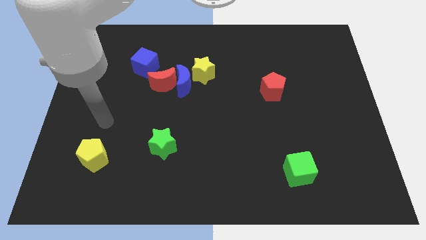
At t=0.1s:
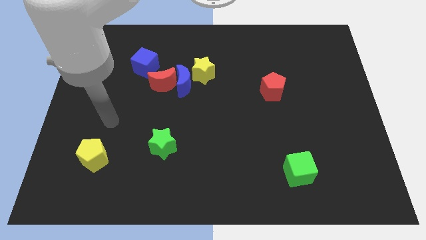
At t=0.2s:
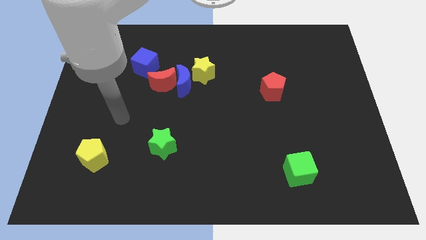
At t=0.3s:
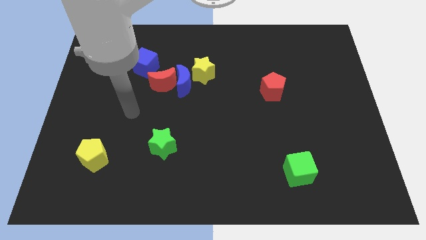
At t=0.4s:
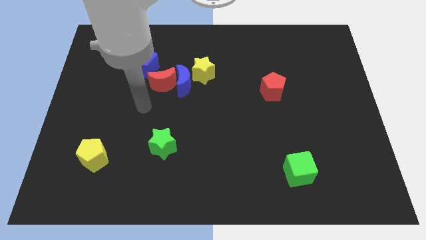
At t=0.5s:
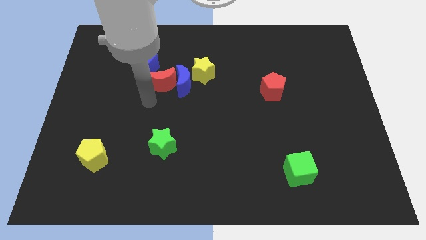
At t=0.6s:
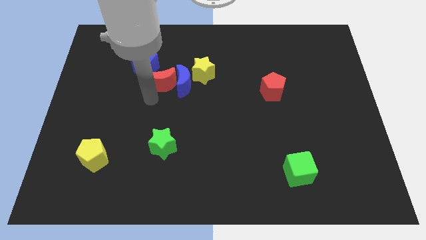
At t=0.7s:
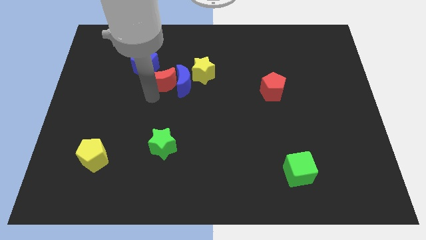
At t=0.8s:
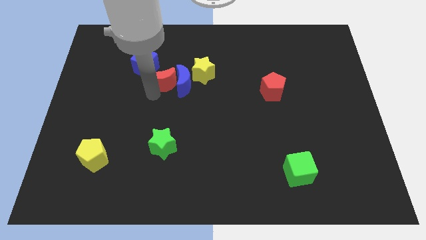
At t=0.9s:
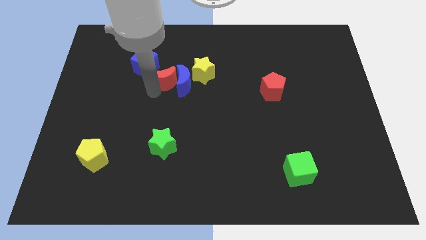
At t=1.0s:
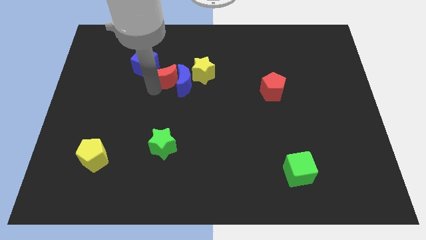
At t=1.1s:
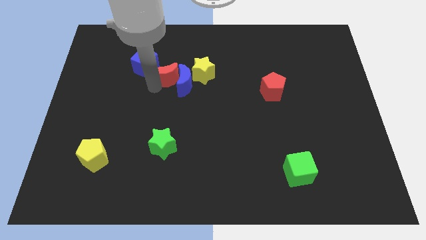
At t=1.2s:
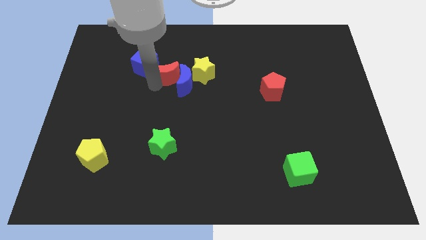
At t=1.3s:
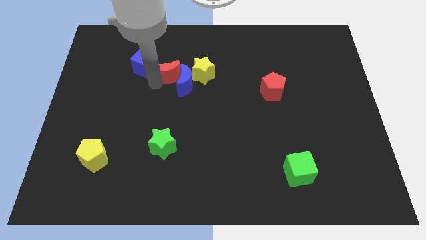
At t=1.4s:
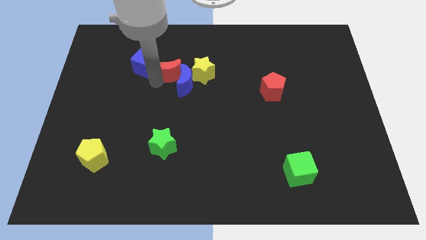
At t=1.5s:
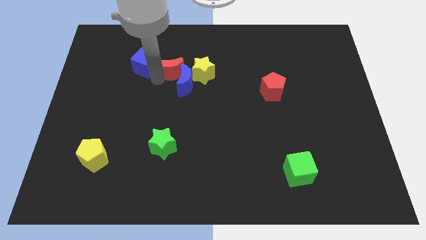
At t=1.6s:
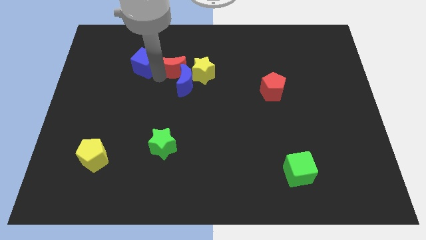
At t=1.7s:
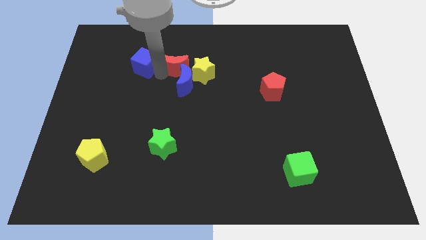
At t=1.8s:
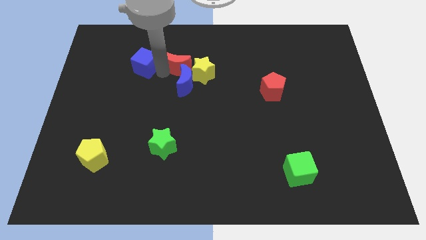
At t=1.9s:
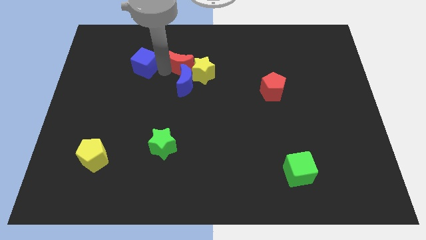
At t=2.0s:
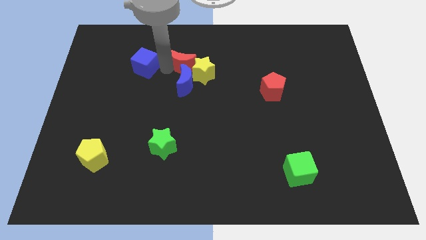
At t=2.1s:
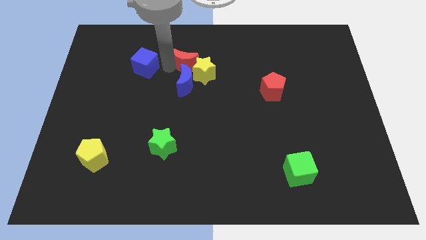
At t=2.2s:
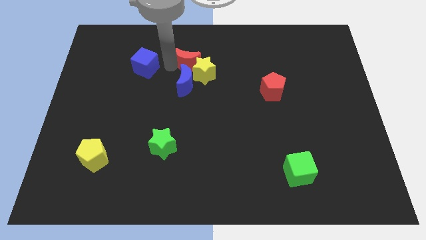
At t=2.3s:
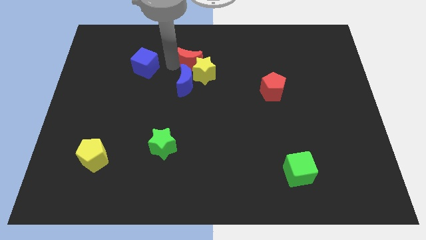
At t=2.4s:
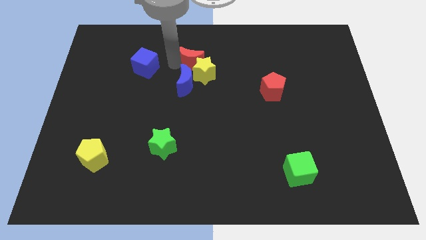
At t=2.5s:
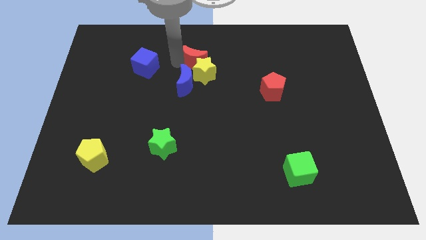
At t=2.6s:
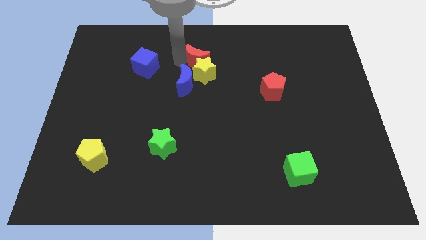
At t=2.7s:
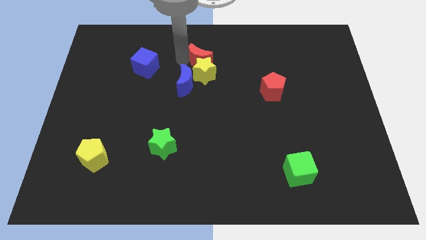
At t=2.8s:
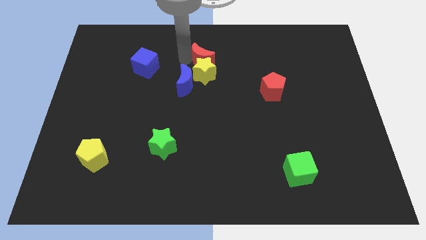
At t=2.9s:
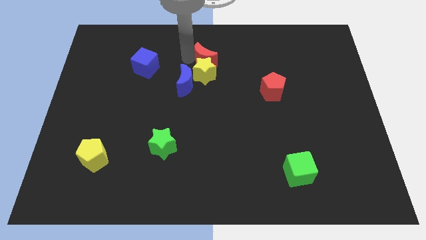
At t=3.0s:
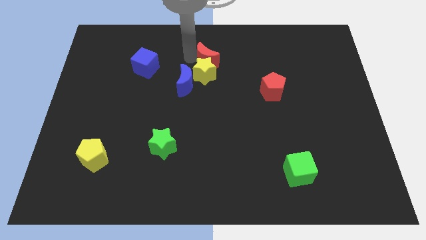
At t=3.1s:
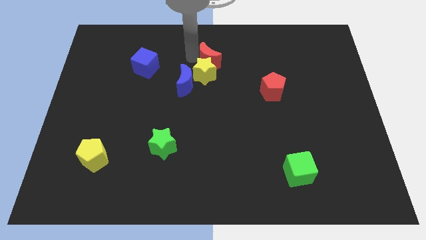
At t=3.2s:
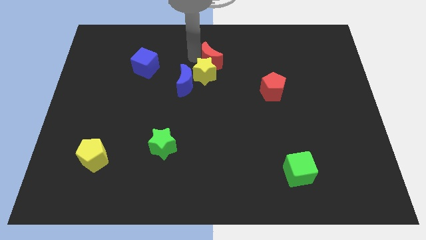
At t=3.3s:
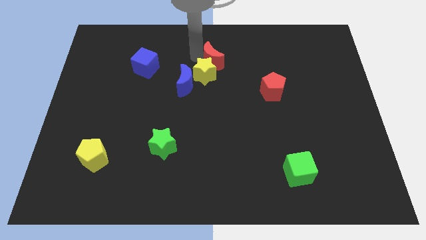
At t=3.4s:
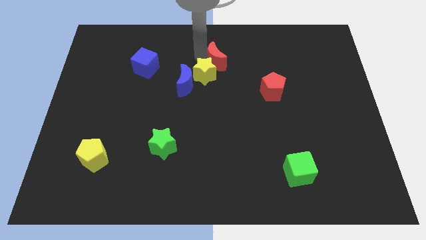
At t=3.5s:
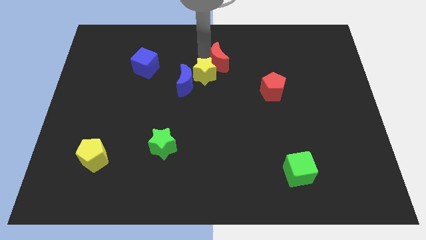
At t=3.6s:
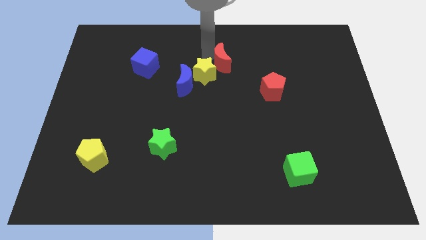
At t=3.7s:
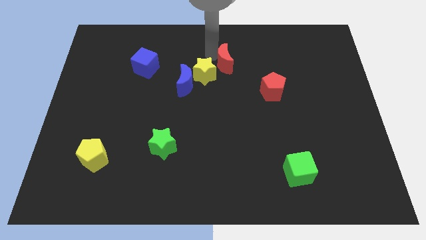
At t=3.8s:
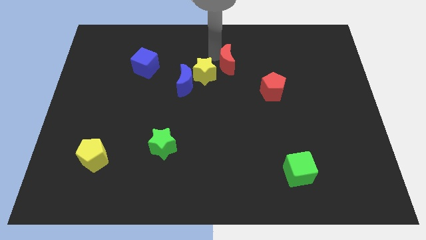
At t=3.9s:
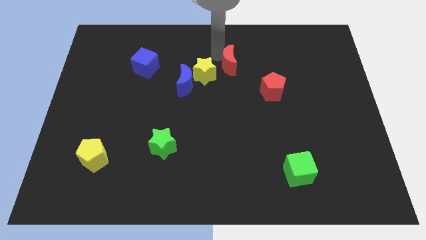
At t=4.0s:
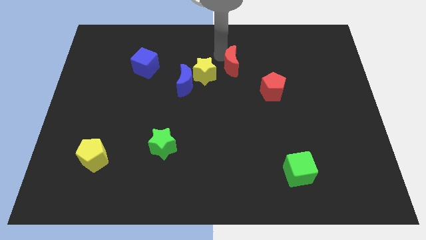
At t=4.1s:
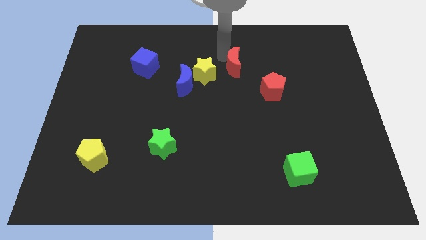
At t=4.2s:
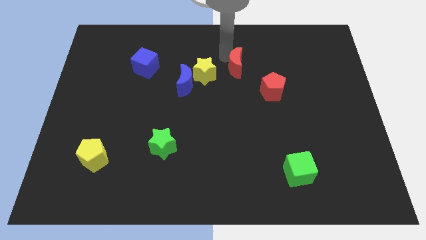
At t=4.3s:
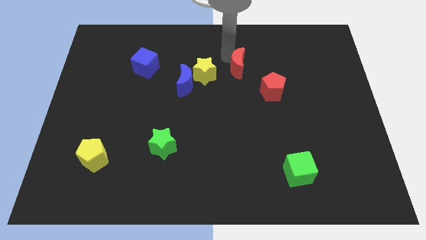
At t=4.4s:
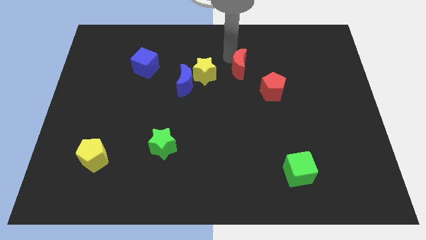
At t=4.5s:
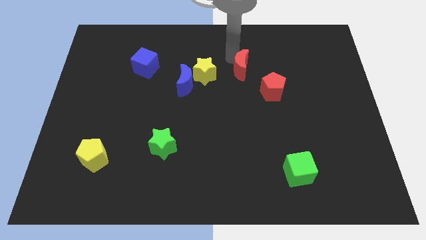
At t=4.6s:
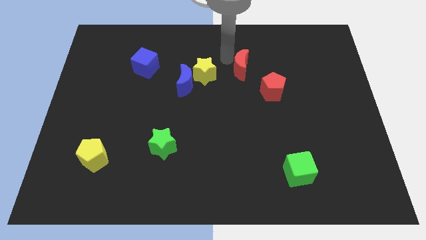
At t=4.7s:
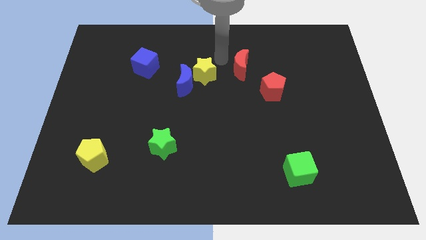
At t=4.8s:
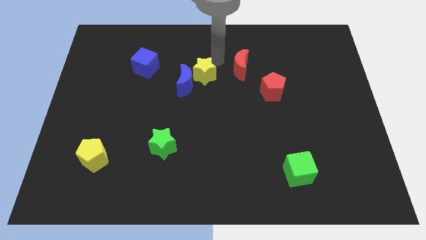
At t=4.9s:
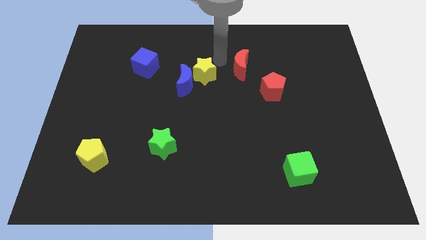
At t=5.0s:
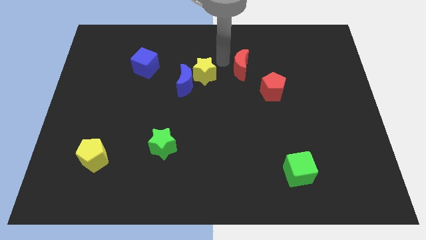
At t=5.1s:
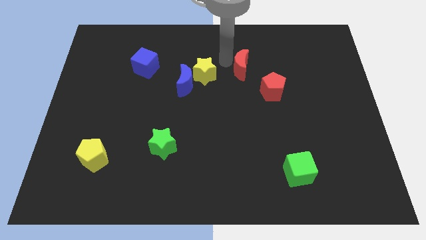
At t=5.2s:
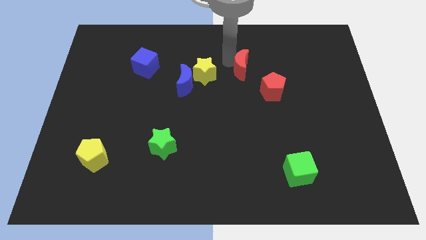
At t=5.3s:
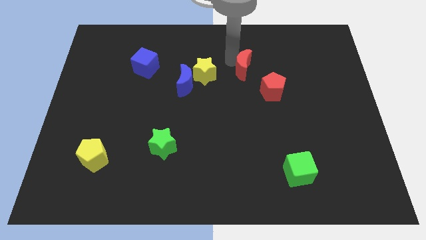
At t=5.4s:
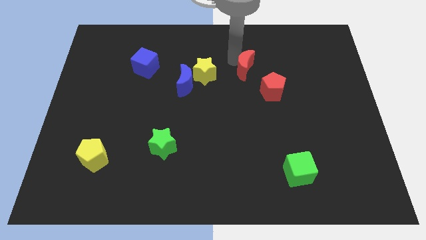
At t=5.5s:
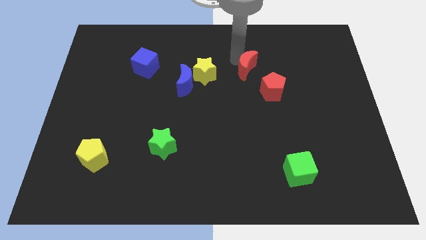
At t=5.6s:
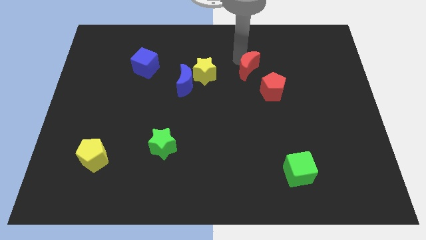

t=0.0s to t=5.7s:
push the red moon right

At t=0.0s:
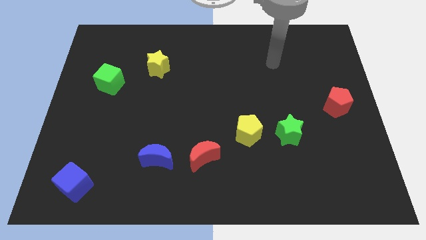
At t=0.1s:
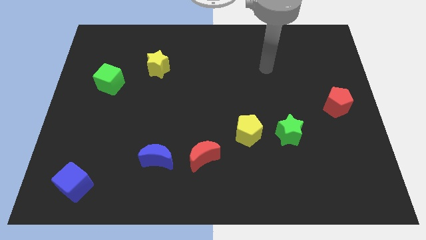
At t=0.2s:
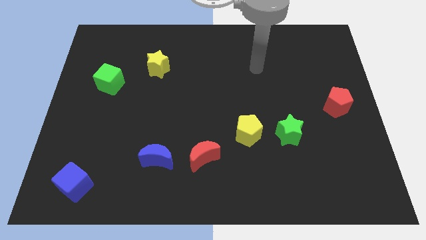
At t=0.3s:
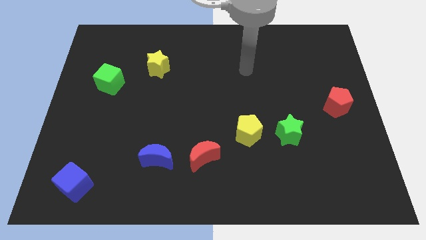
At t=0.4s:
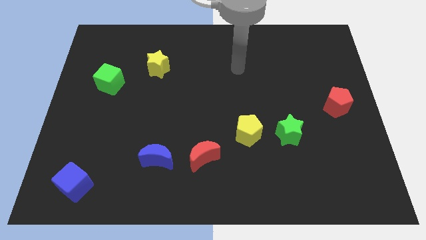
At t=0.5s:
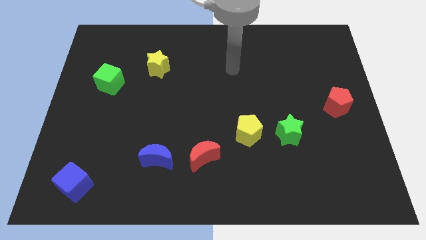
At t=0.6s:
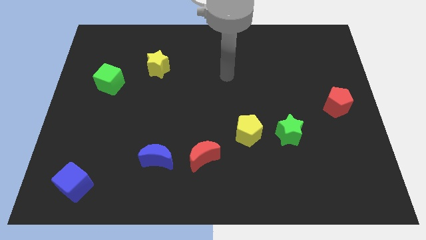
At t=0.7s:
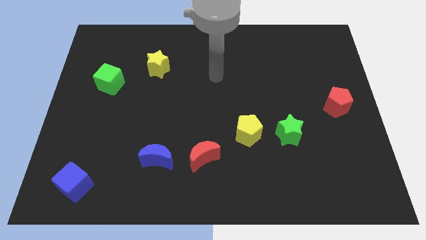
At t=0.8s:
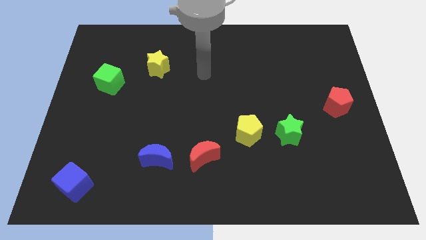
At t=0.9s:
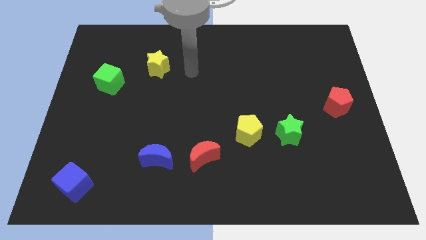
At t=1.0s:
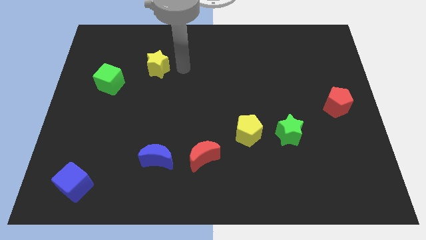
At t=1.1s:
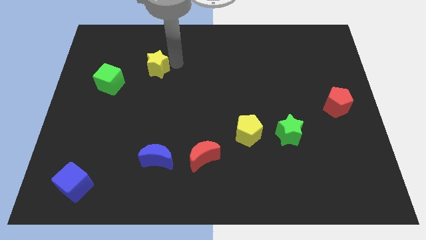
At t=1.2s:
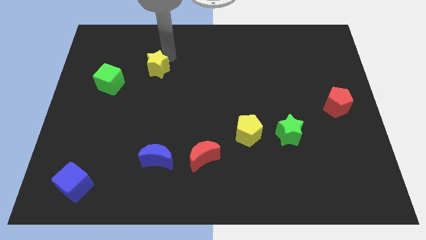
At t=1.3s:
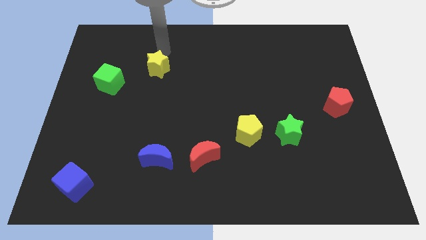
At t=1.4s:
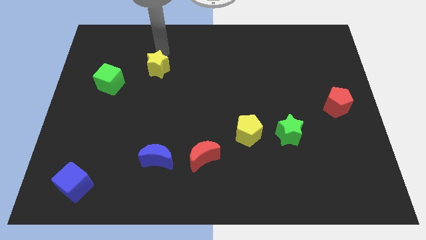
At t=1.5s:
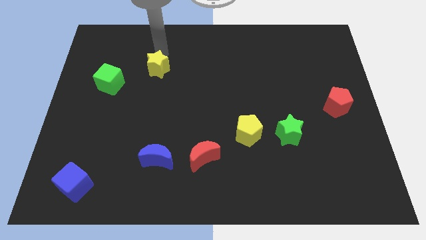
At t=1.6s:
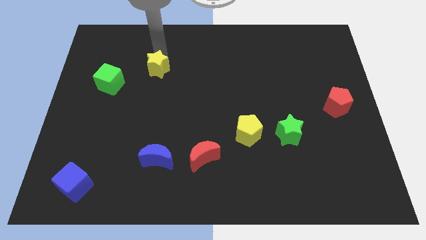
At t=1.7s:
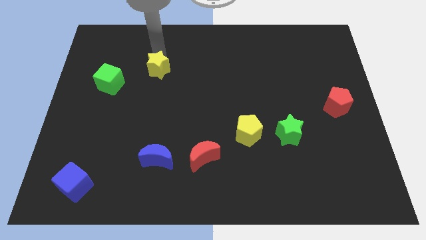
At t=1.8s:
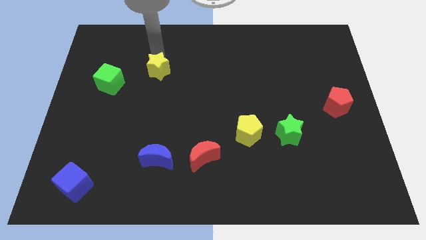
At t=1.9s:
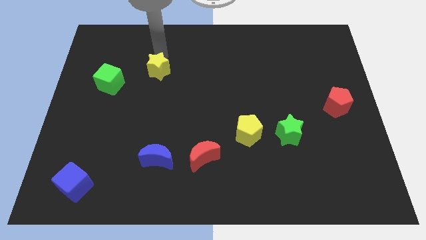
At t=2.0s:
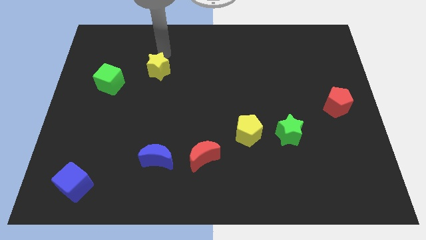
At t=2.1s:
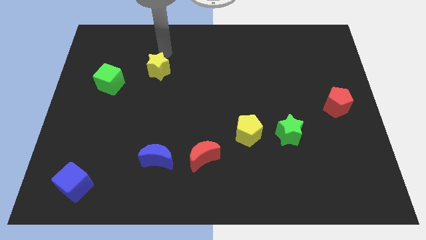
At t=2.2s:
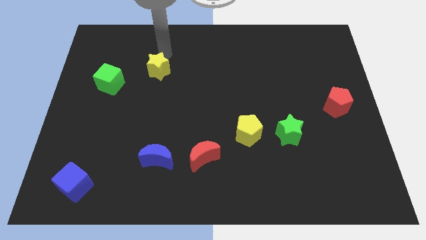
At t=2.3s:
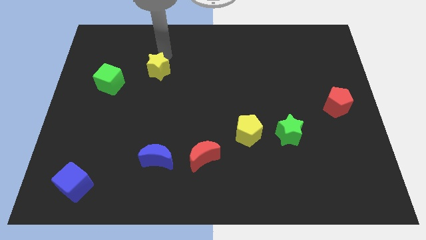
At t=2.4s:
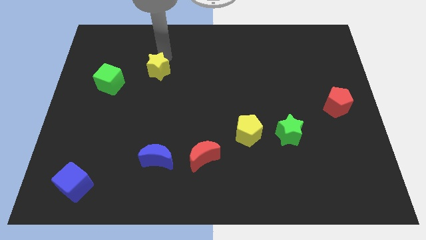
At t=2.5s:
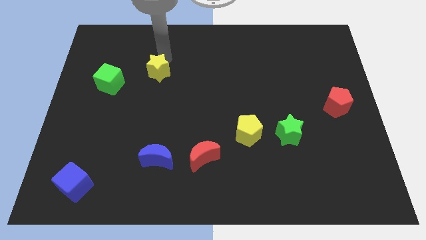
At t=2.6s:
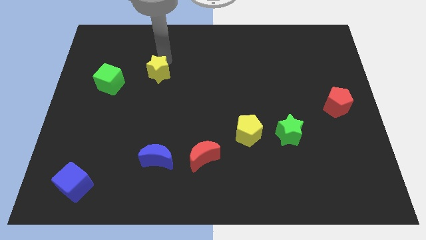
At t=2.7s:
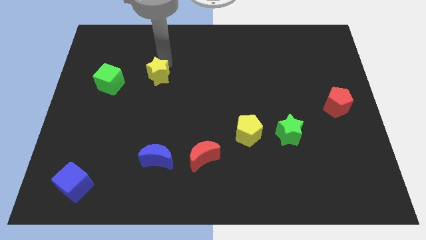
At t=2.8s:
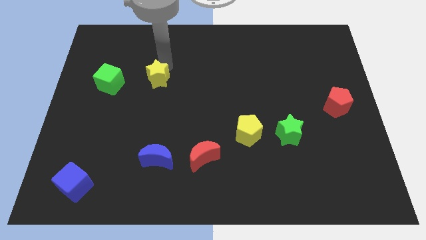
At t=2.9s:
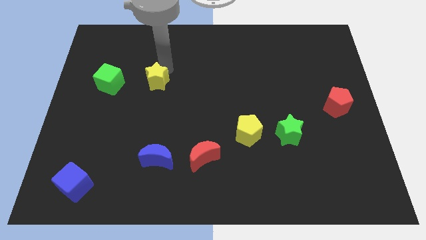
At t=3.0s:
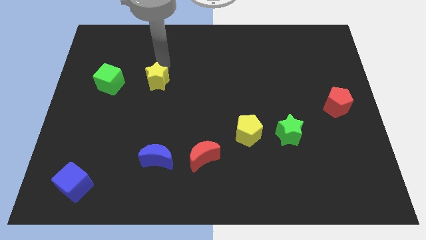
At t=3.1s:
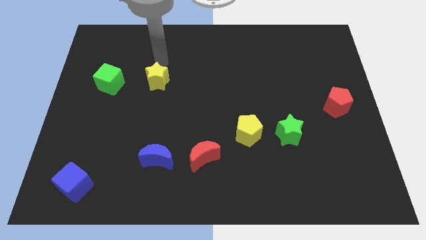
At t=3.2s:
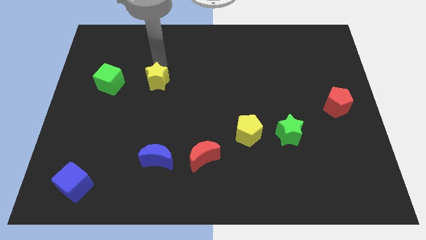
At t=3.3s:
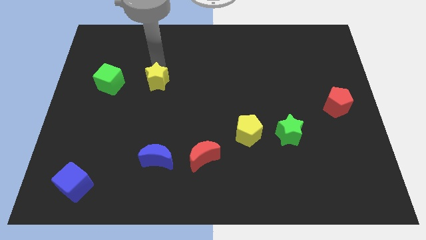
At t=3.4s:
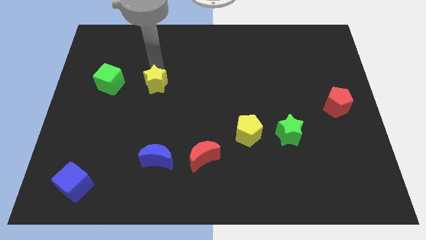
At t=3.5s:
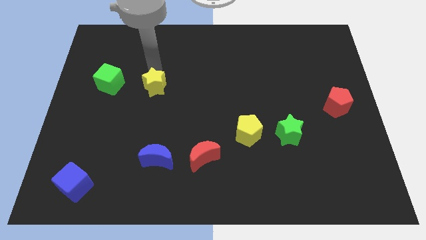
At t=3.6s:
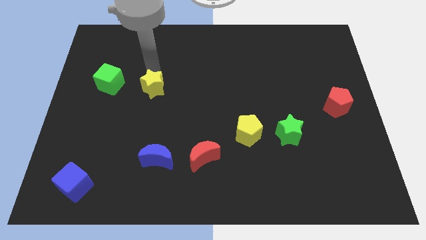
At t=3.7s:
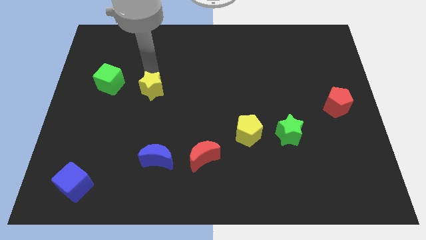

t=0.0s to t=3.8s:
move the yellow star slightly downwards
